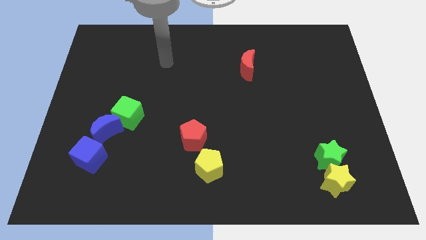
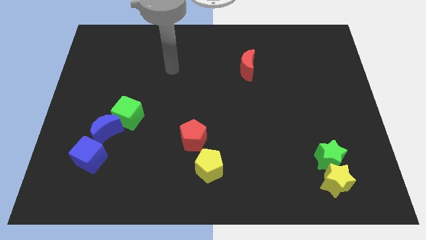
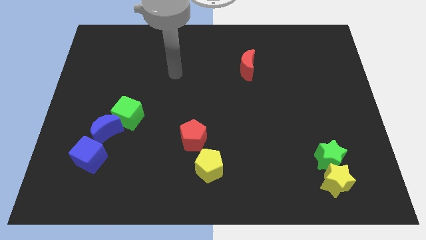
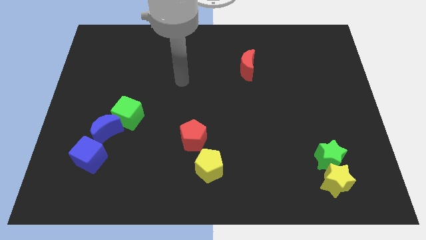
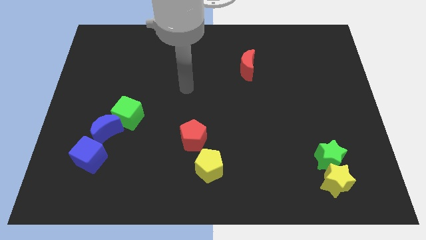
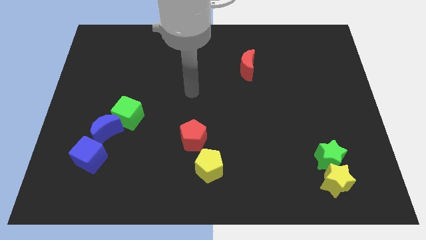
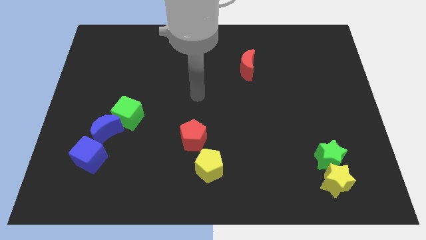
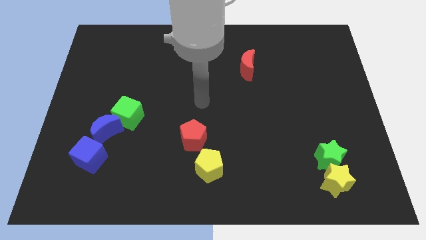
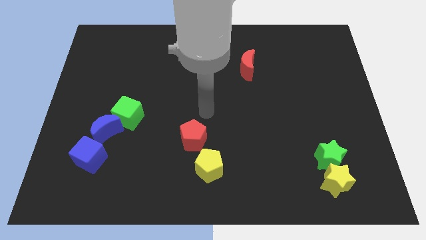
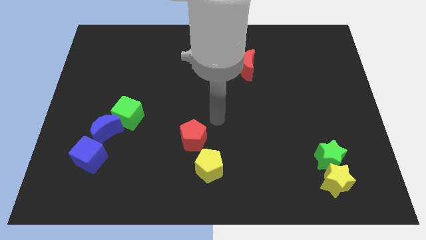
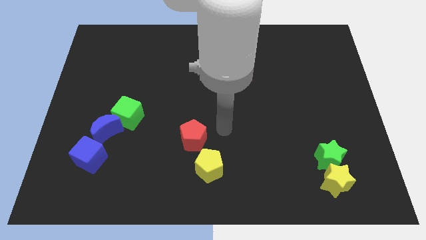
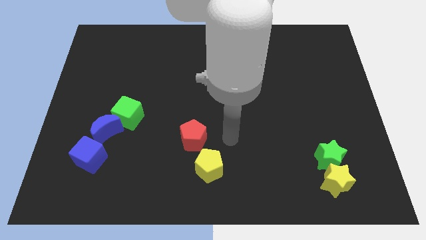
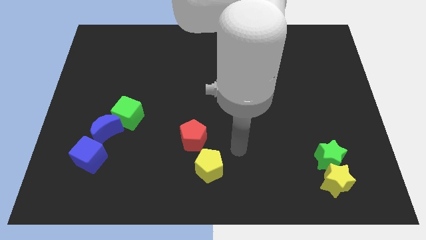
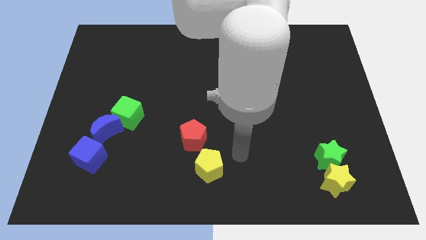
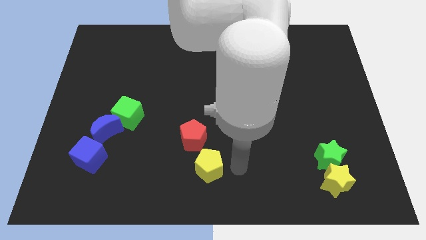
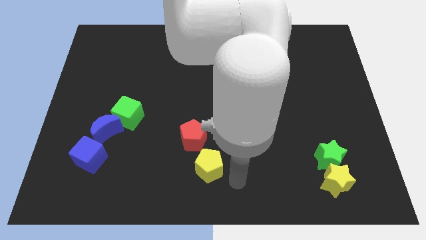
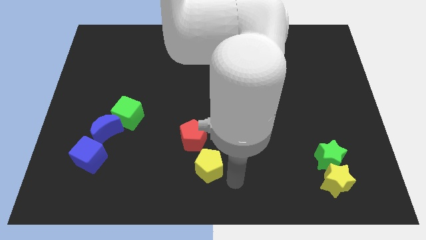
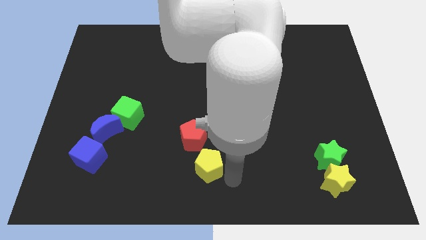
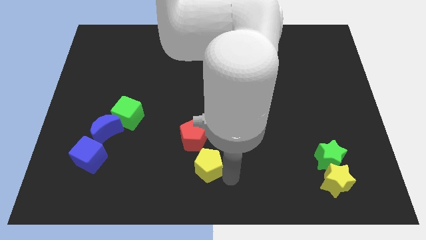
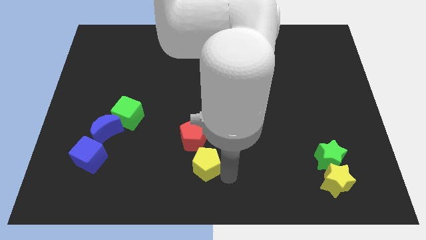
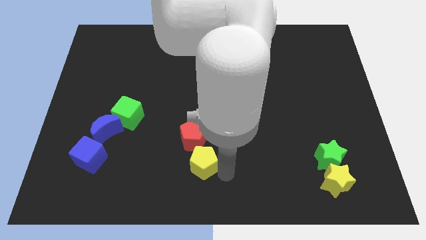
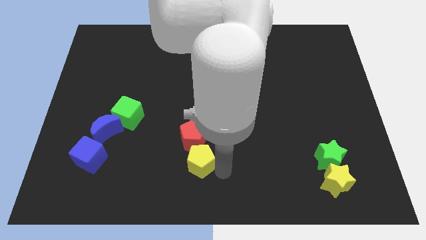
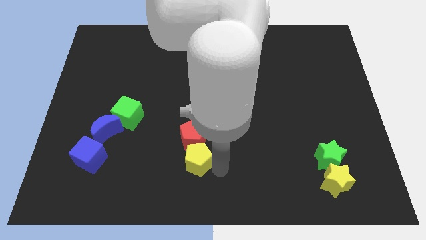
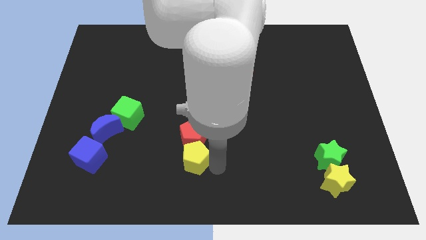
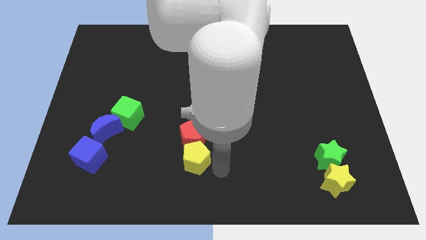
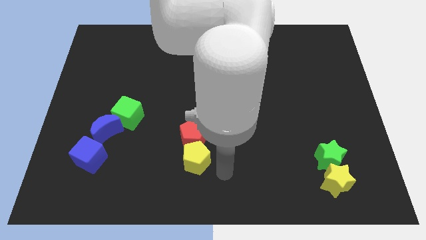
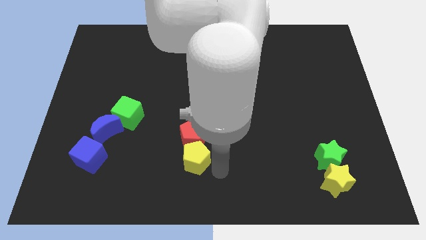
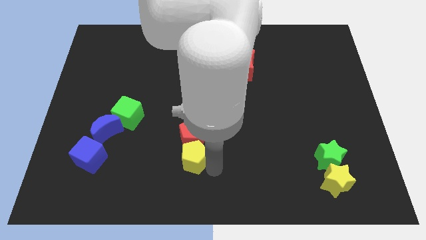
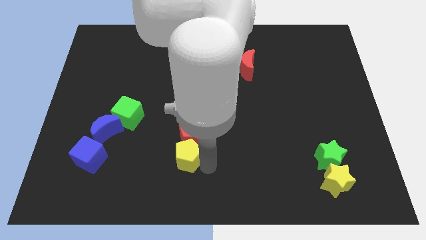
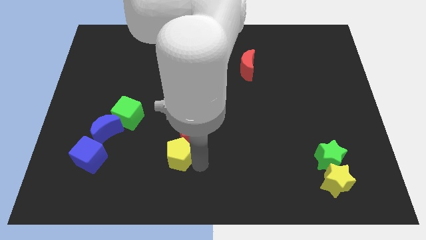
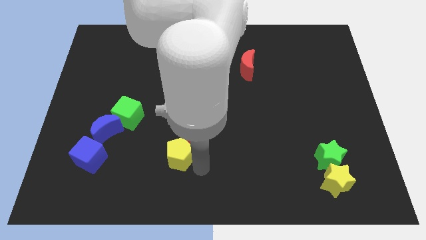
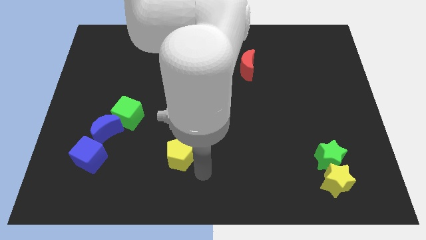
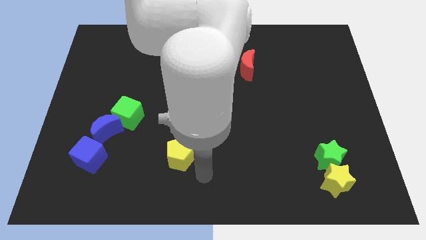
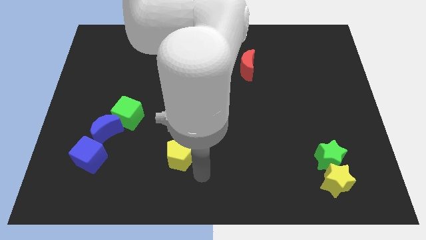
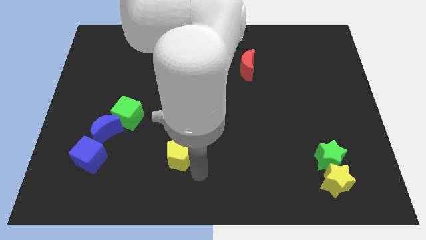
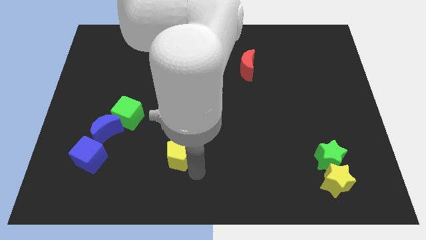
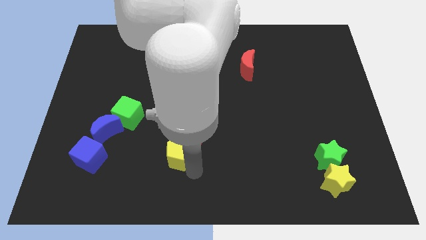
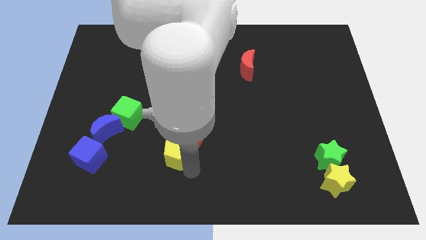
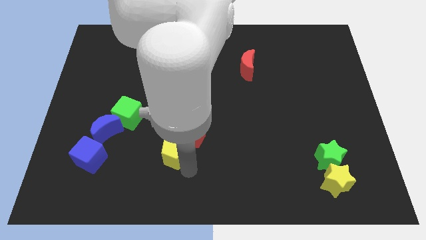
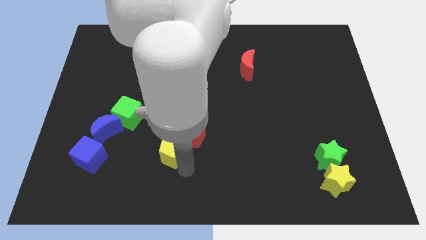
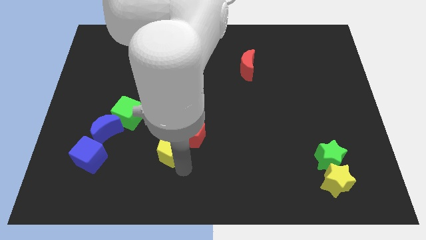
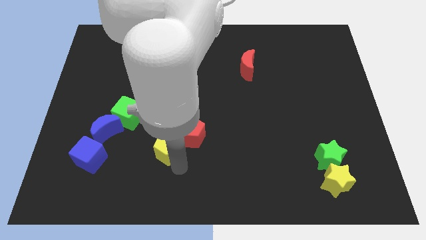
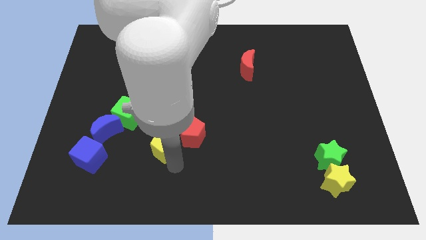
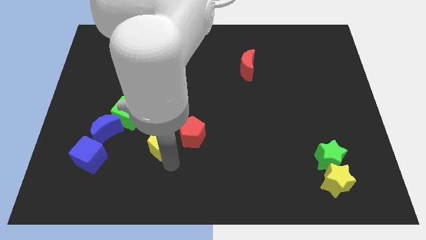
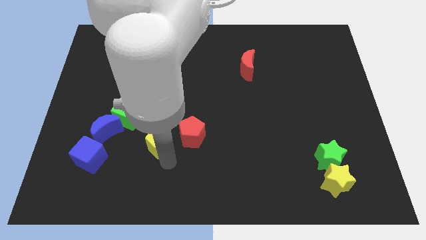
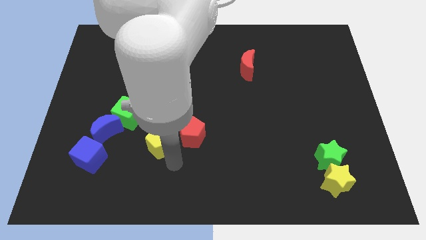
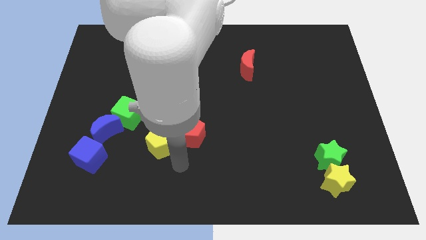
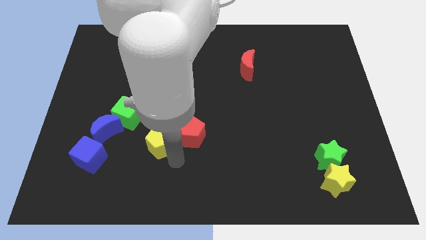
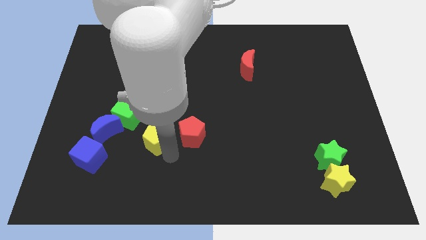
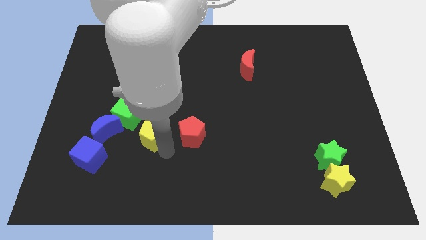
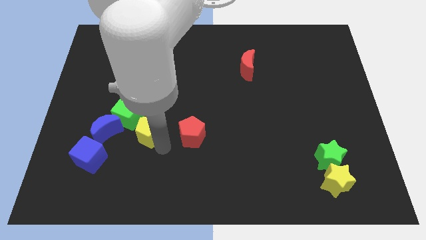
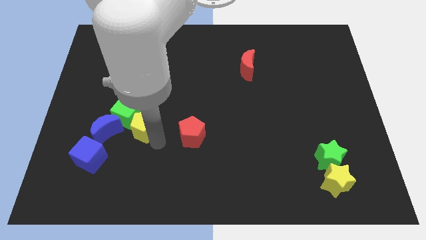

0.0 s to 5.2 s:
put the yellow pentagon to the green cube

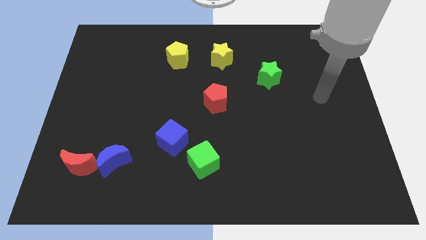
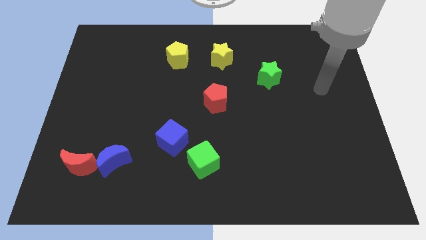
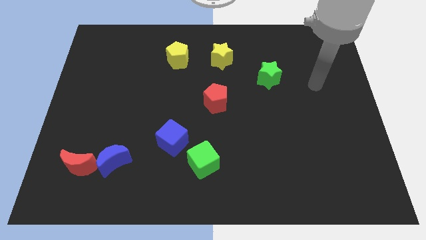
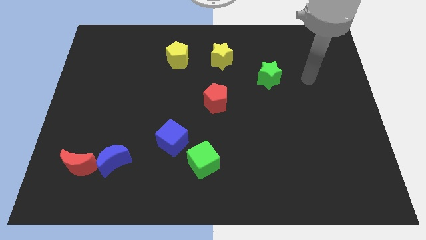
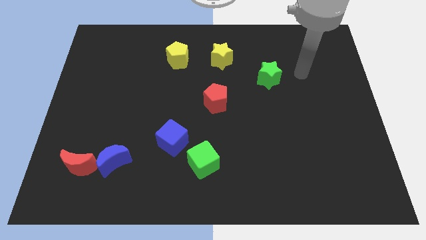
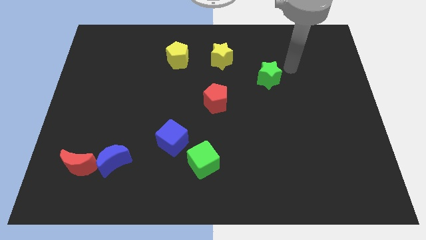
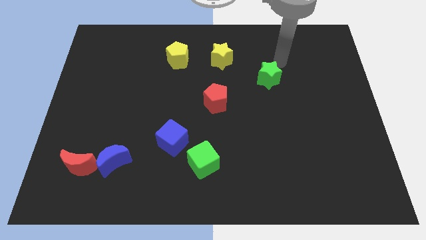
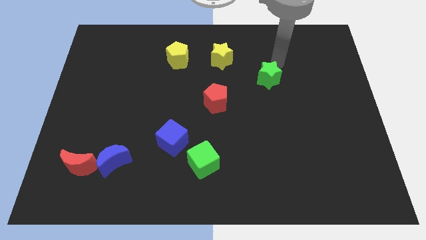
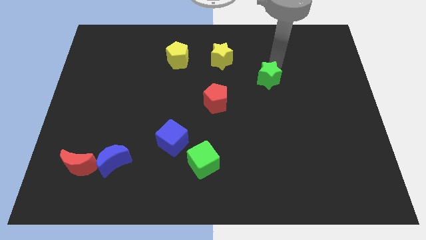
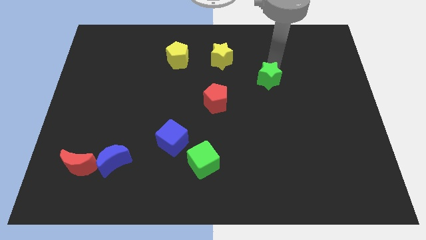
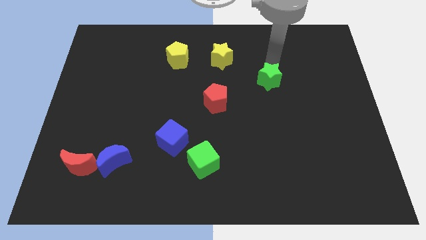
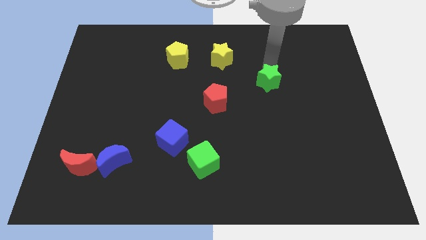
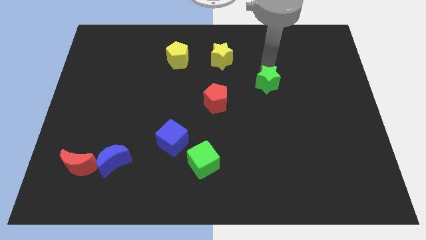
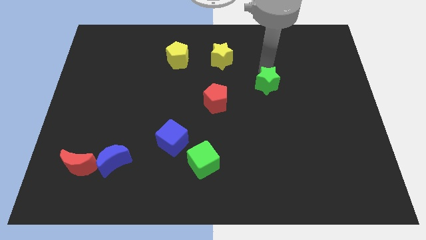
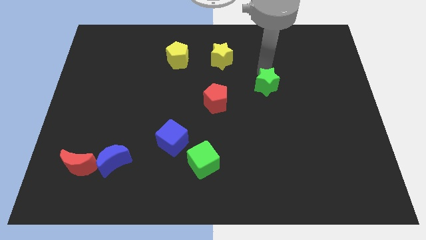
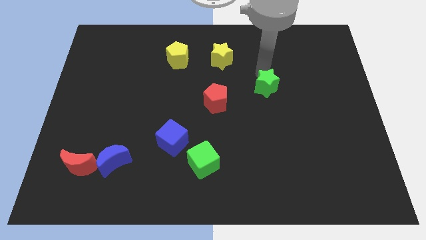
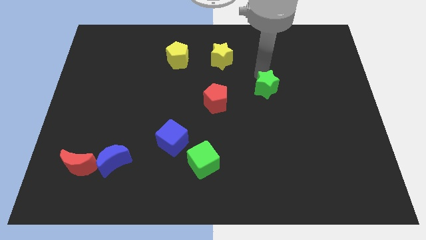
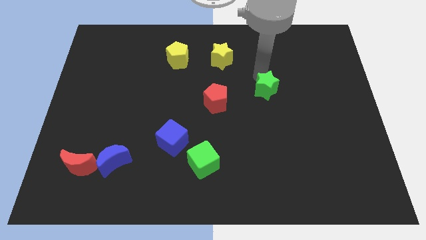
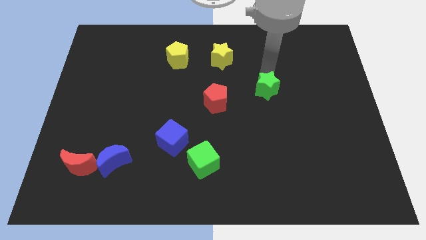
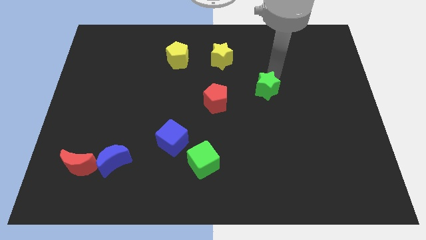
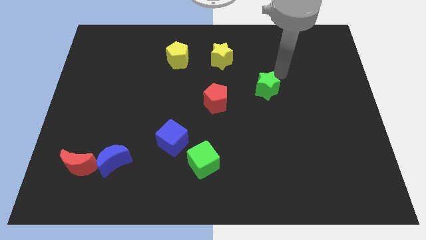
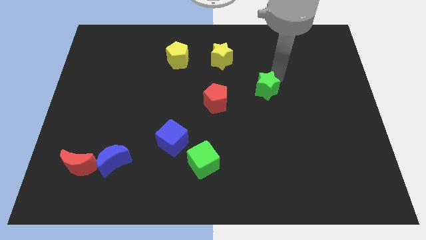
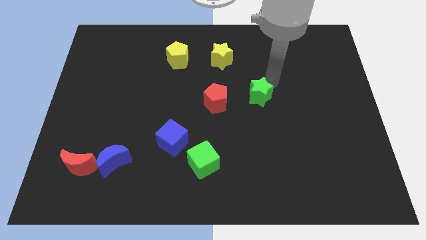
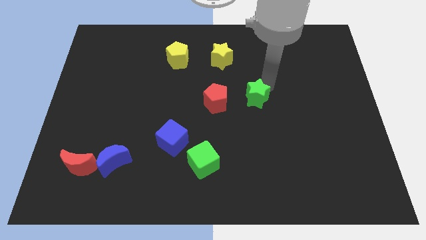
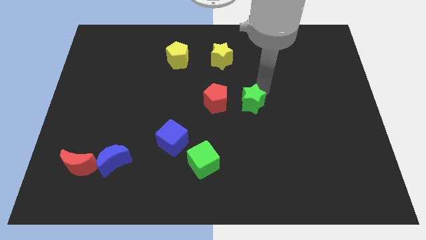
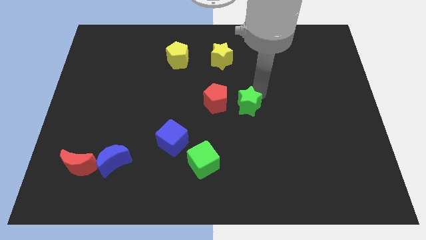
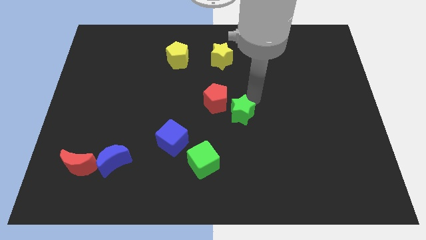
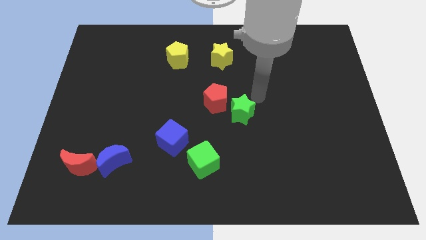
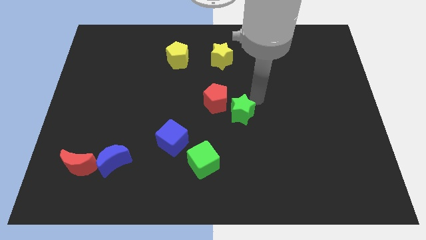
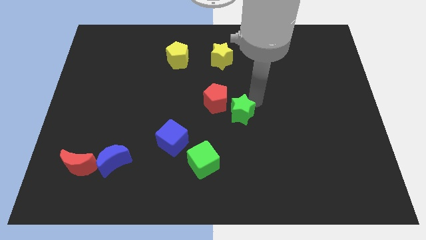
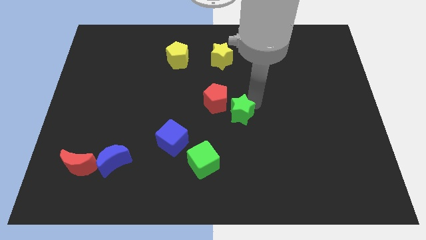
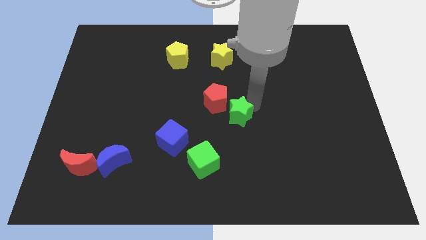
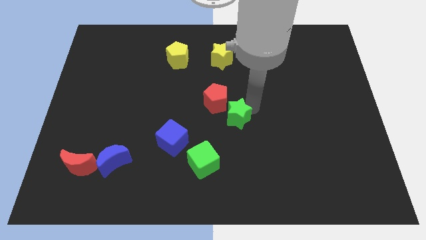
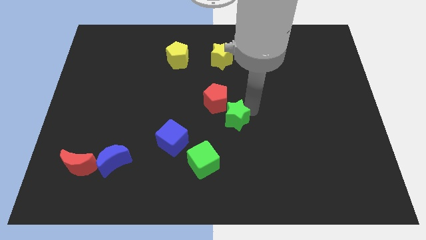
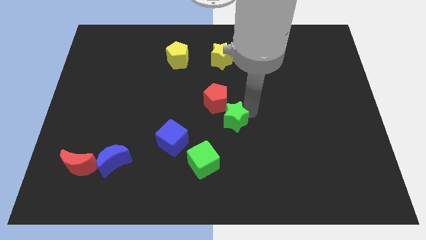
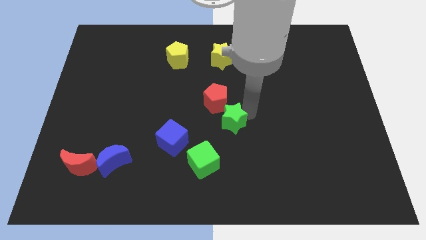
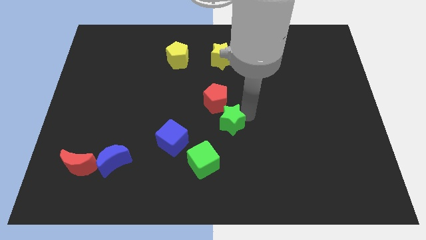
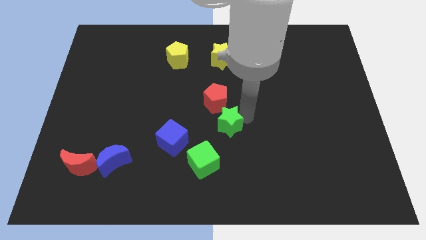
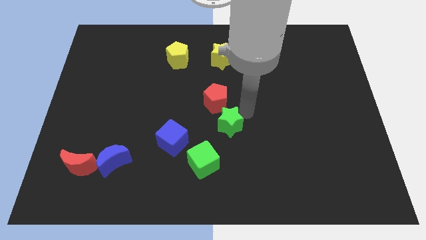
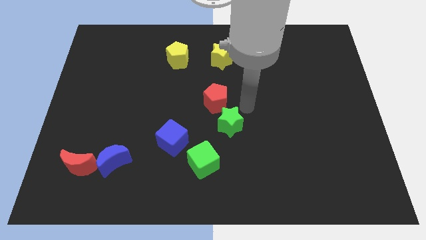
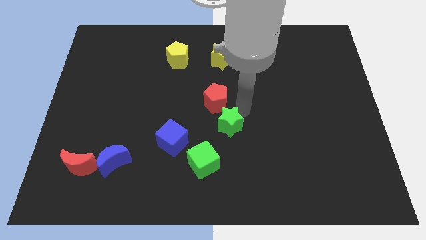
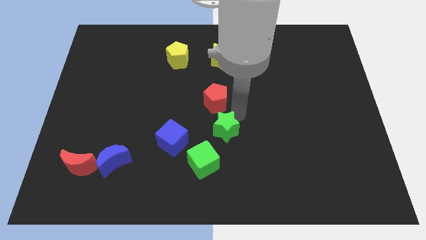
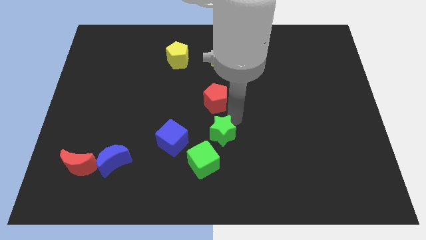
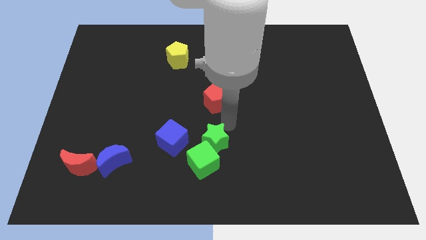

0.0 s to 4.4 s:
move the green star next to the green cube
